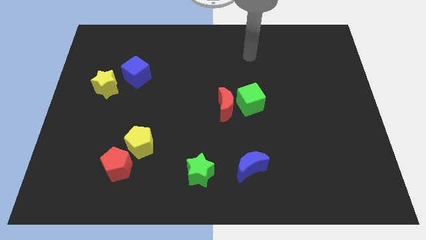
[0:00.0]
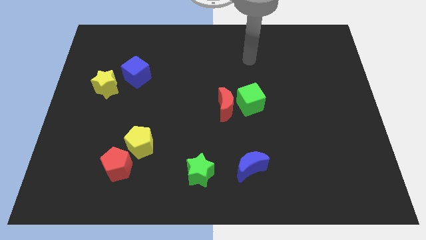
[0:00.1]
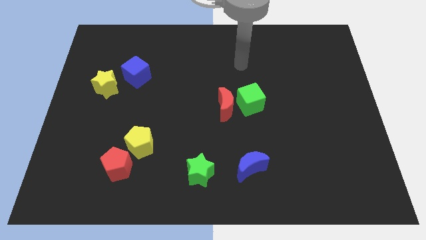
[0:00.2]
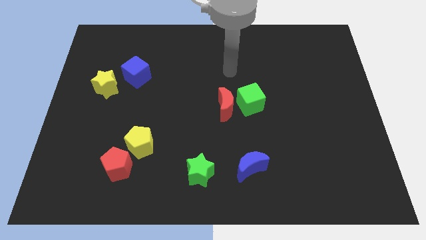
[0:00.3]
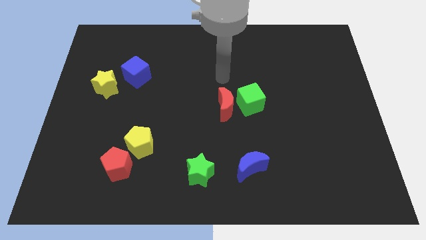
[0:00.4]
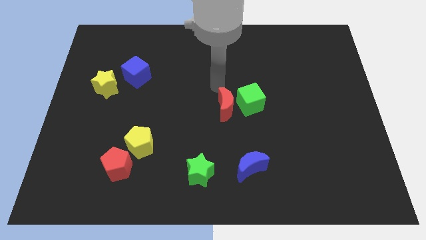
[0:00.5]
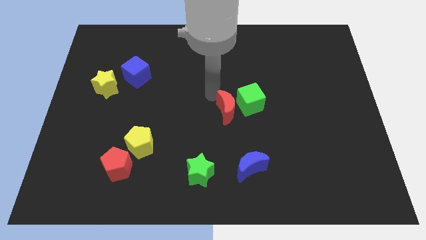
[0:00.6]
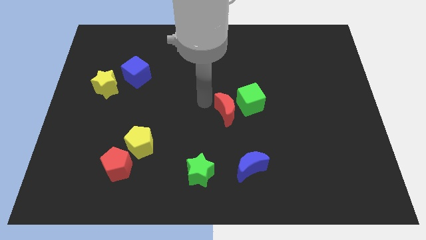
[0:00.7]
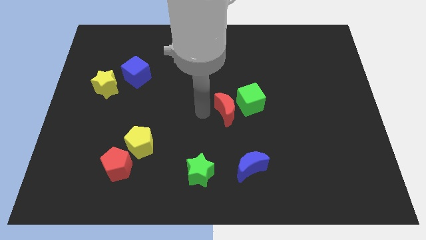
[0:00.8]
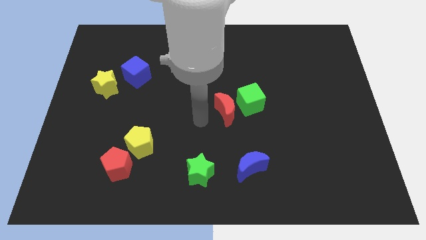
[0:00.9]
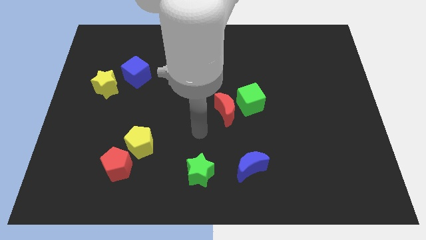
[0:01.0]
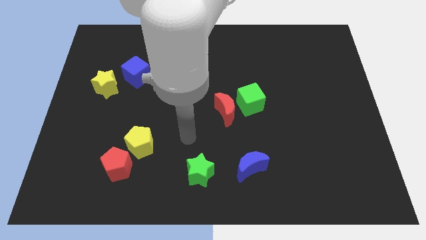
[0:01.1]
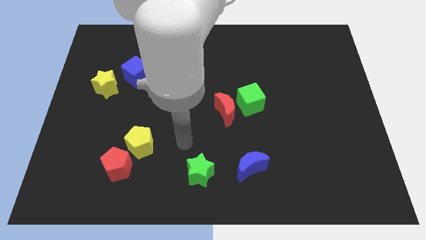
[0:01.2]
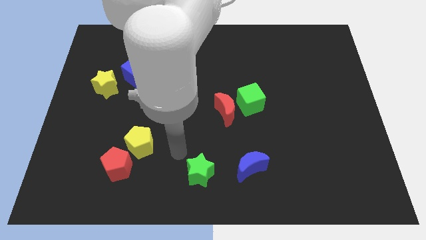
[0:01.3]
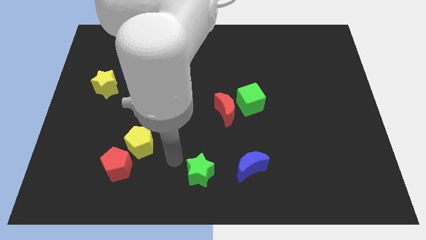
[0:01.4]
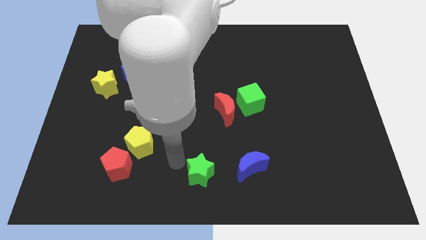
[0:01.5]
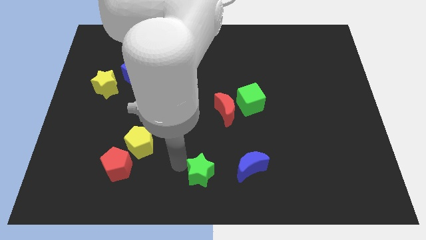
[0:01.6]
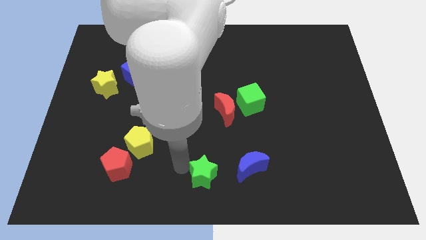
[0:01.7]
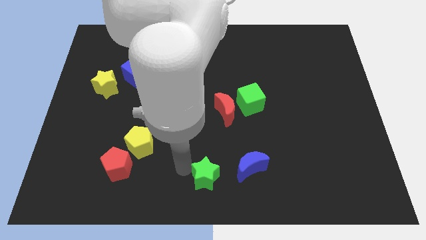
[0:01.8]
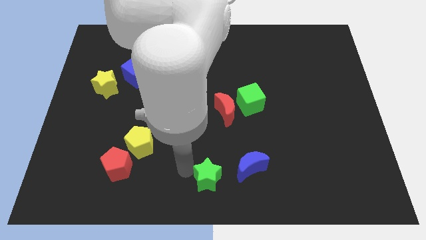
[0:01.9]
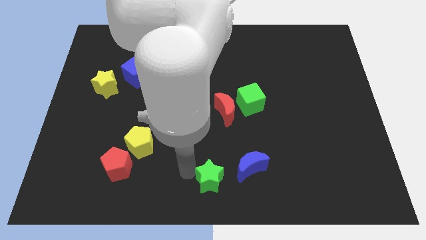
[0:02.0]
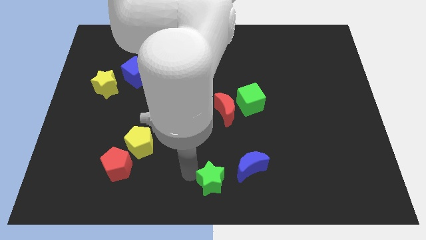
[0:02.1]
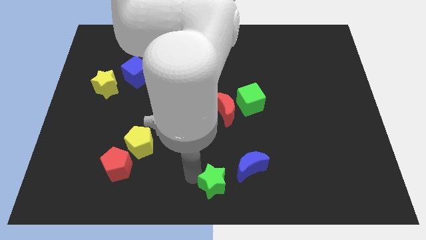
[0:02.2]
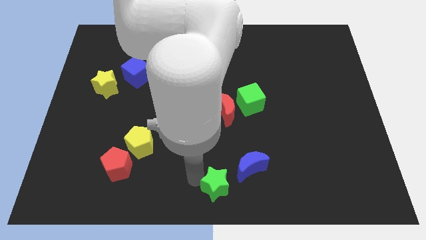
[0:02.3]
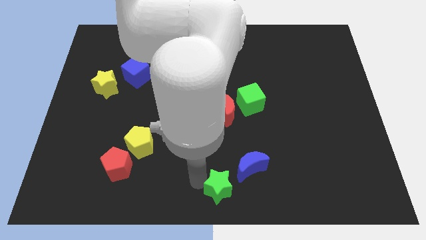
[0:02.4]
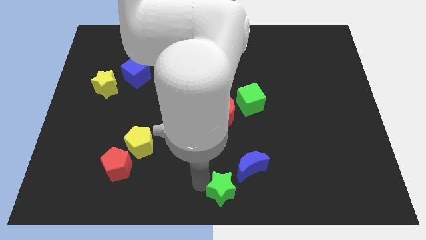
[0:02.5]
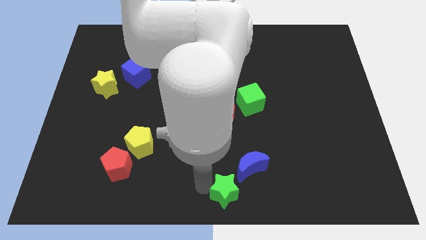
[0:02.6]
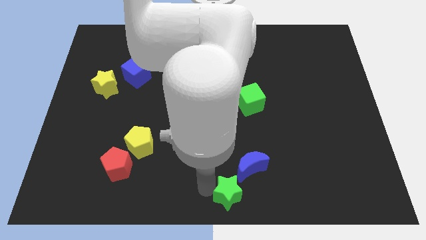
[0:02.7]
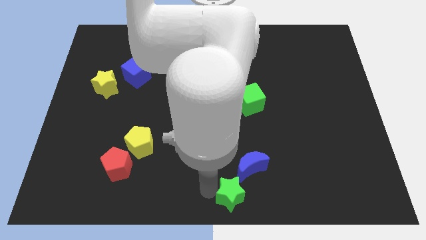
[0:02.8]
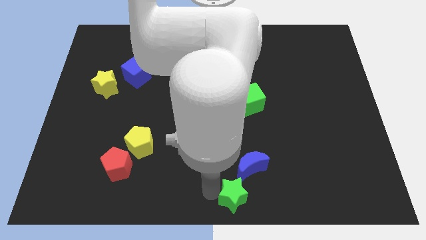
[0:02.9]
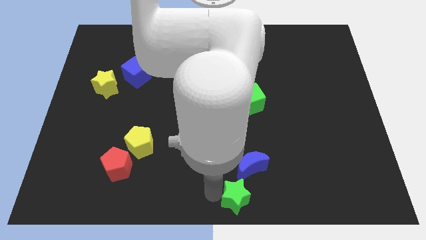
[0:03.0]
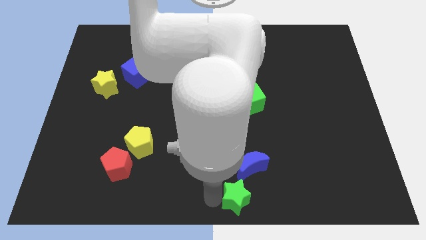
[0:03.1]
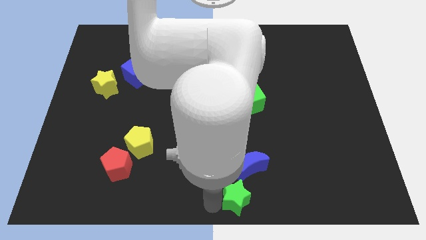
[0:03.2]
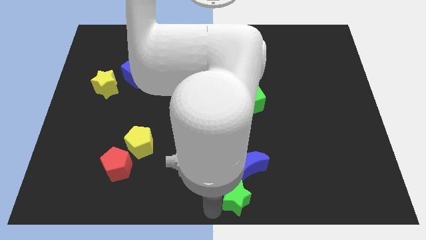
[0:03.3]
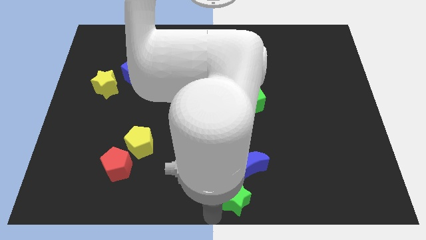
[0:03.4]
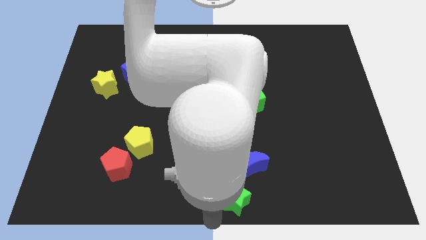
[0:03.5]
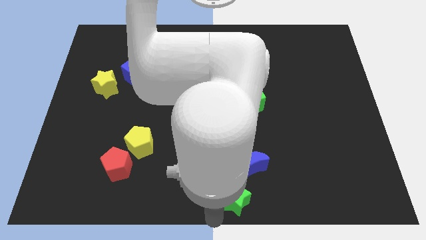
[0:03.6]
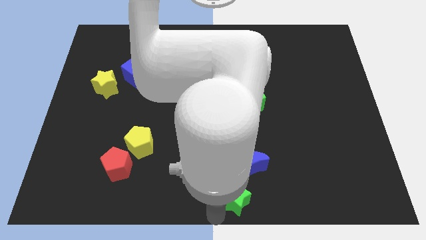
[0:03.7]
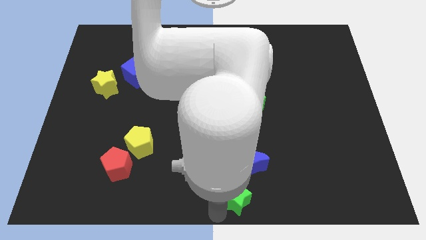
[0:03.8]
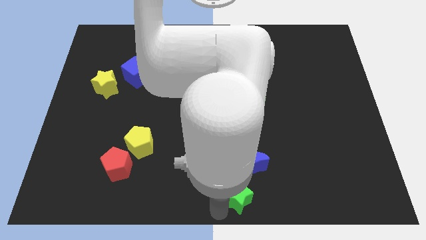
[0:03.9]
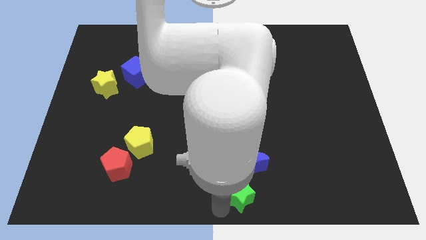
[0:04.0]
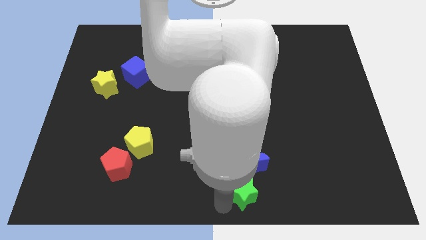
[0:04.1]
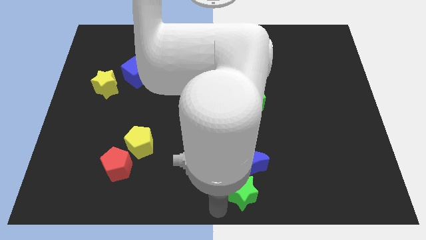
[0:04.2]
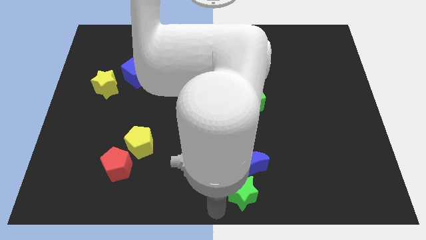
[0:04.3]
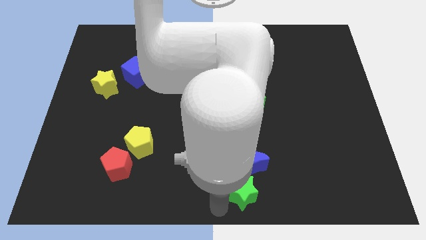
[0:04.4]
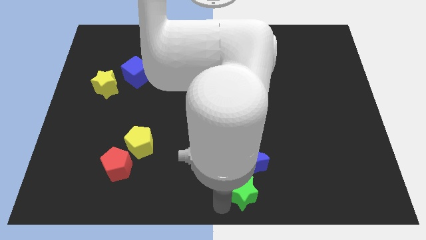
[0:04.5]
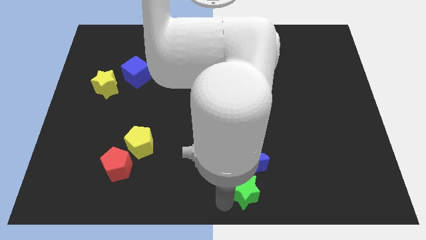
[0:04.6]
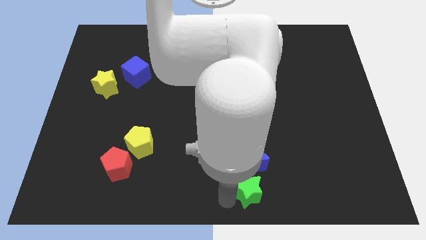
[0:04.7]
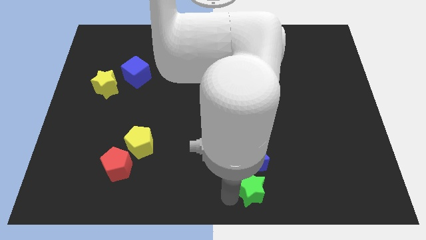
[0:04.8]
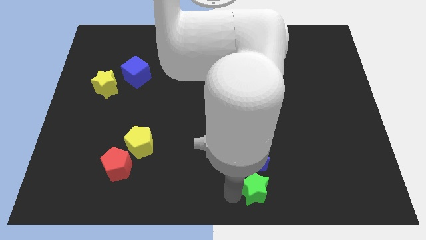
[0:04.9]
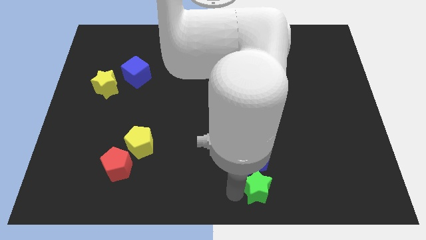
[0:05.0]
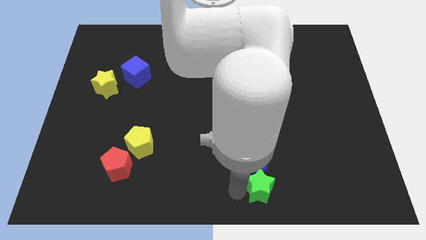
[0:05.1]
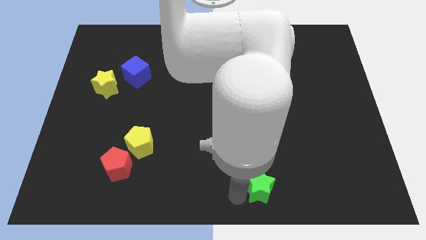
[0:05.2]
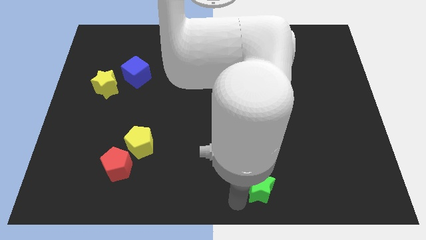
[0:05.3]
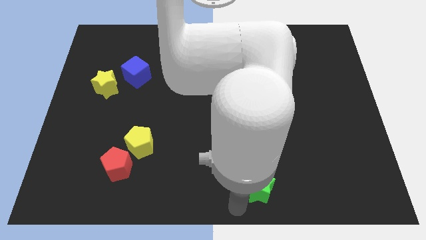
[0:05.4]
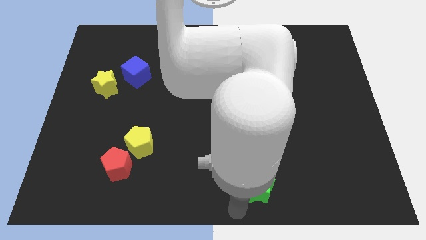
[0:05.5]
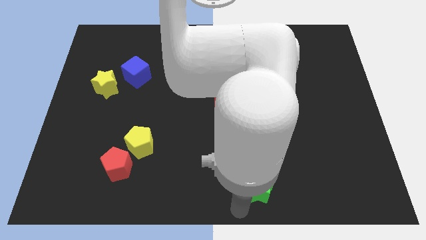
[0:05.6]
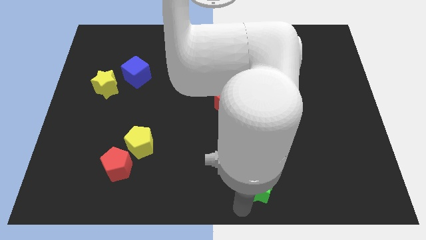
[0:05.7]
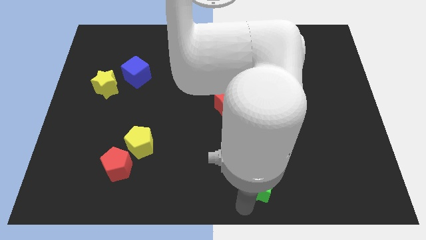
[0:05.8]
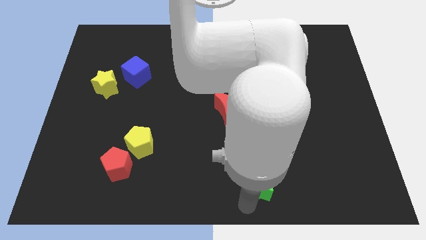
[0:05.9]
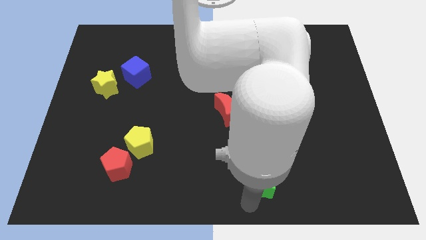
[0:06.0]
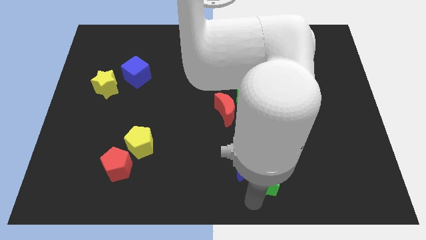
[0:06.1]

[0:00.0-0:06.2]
move the green star to the right side of the blue moon
